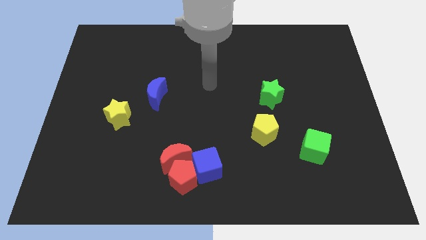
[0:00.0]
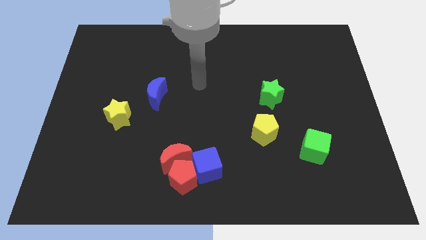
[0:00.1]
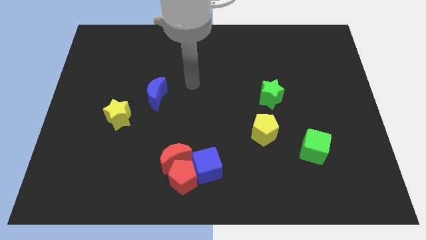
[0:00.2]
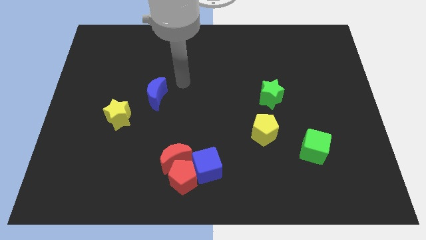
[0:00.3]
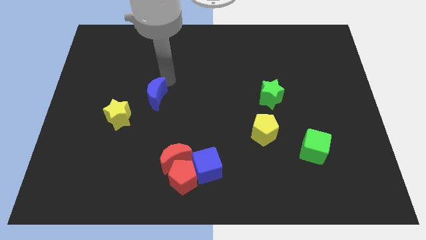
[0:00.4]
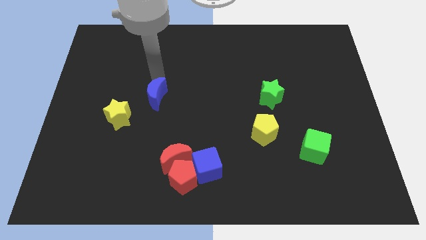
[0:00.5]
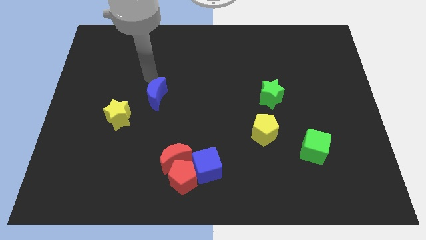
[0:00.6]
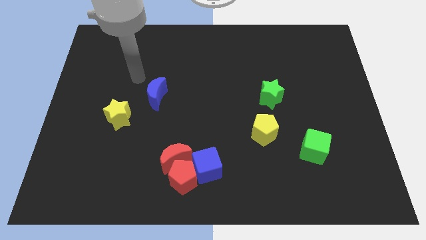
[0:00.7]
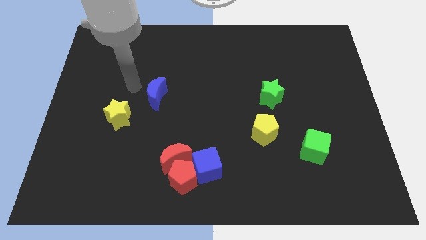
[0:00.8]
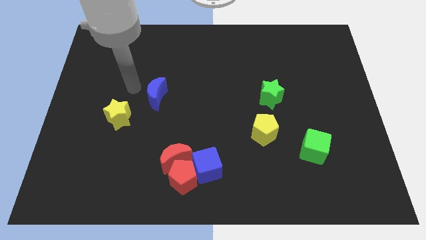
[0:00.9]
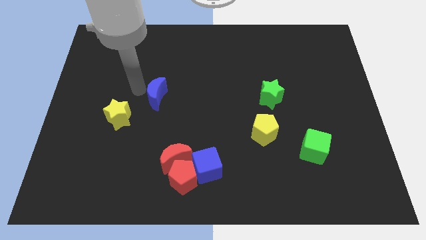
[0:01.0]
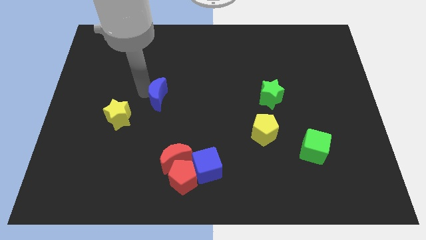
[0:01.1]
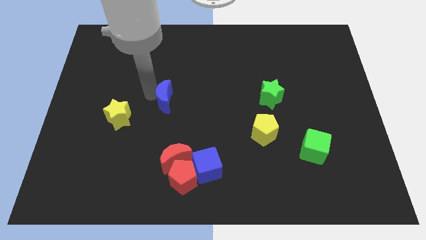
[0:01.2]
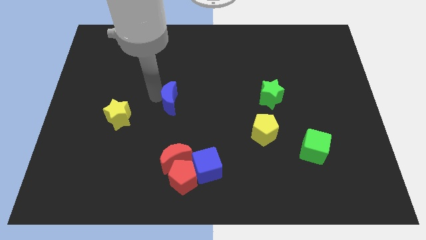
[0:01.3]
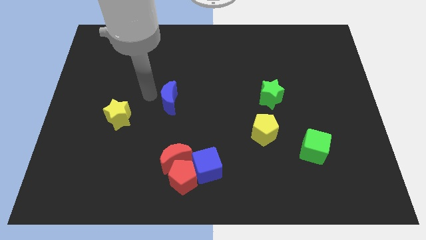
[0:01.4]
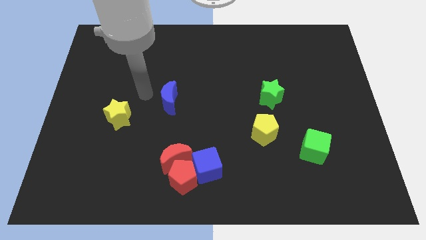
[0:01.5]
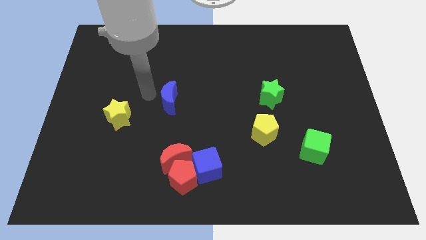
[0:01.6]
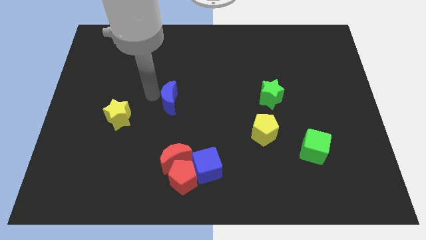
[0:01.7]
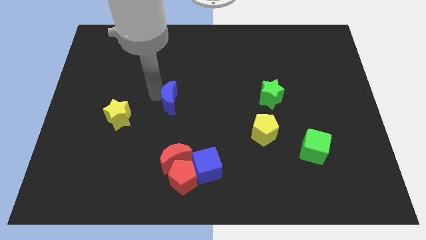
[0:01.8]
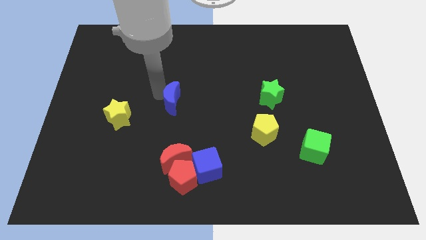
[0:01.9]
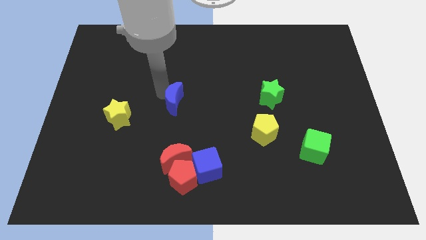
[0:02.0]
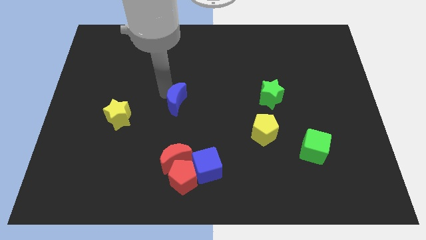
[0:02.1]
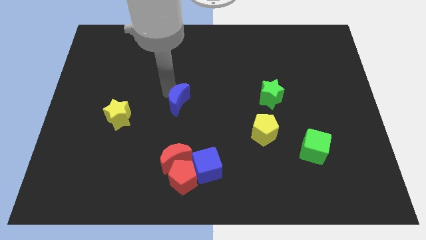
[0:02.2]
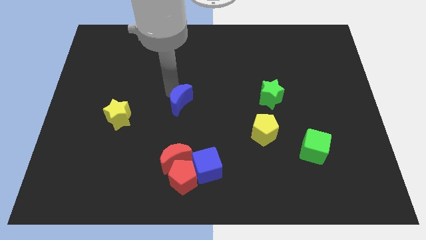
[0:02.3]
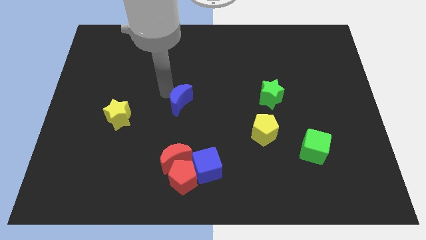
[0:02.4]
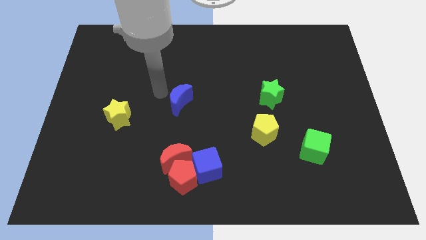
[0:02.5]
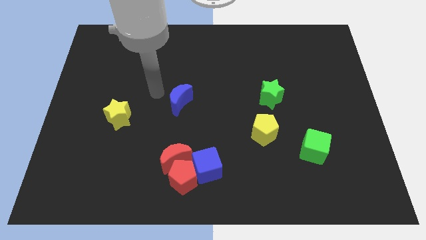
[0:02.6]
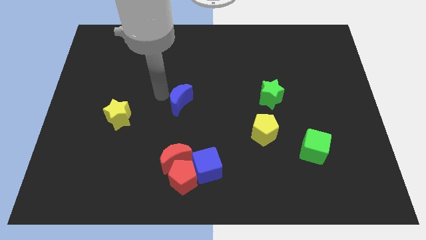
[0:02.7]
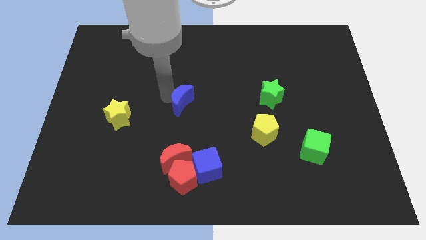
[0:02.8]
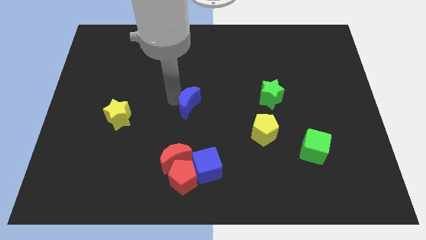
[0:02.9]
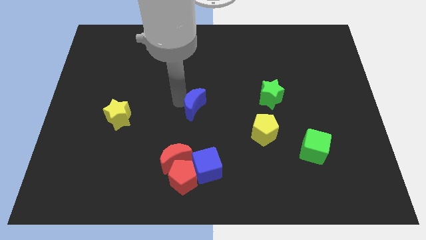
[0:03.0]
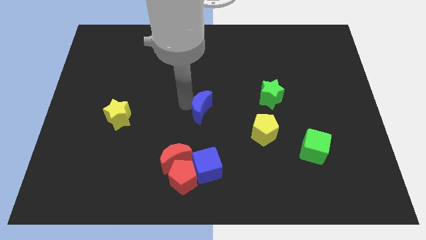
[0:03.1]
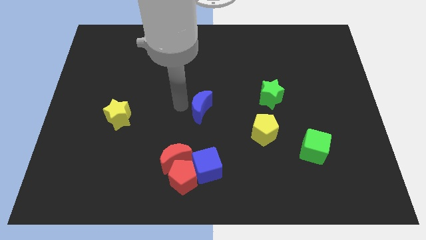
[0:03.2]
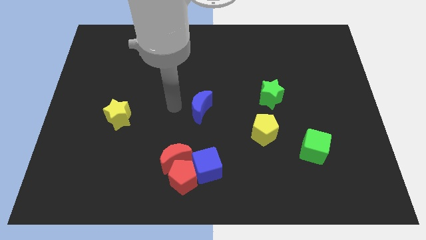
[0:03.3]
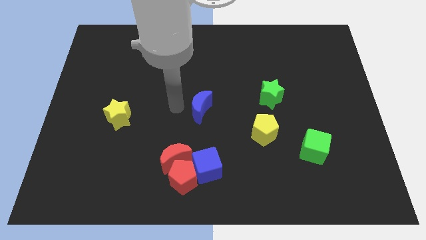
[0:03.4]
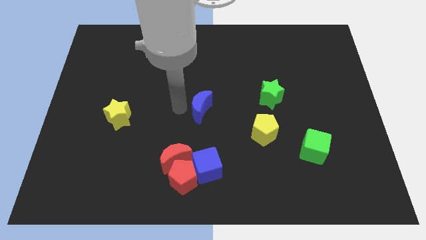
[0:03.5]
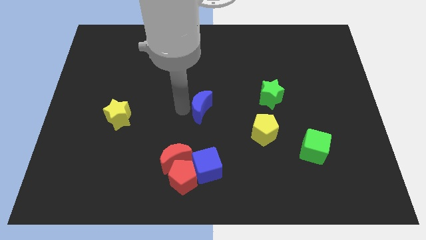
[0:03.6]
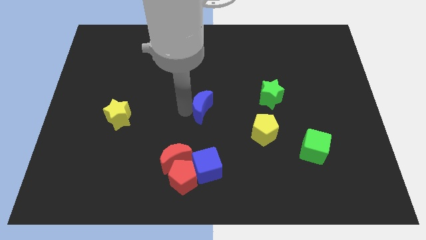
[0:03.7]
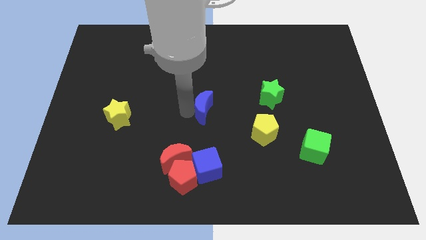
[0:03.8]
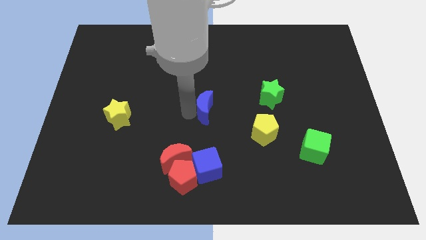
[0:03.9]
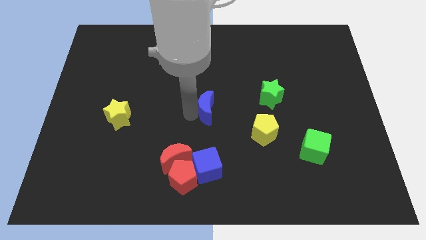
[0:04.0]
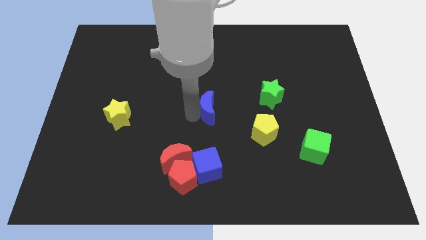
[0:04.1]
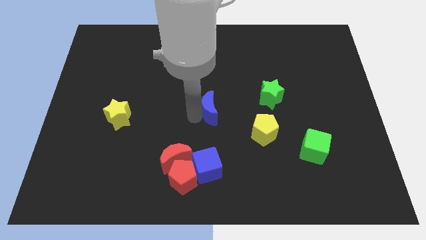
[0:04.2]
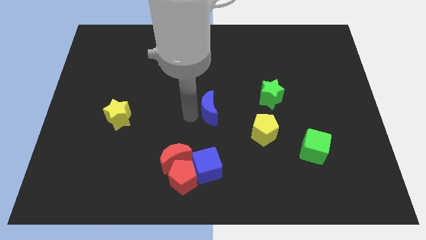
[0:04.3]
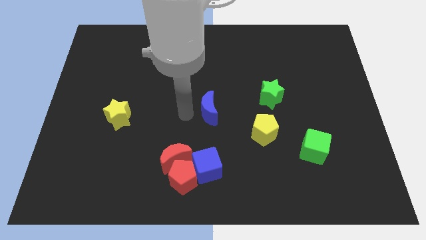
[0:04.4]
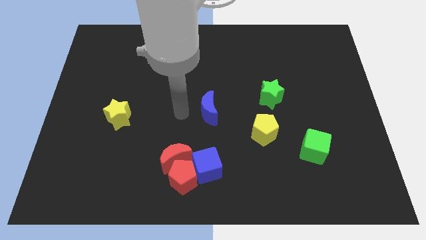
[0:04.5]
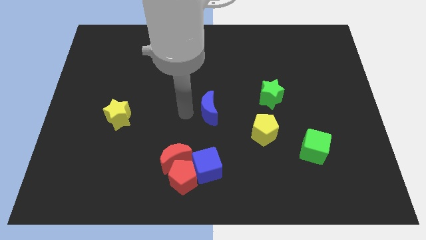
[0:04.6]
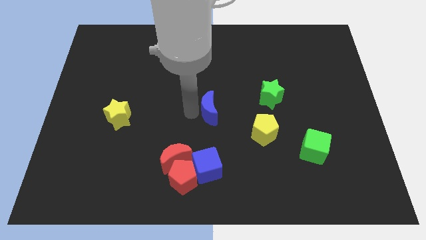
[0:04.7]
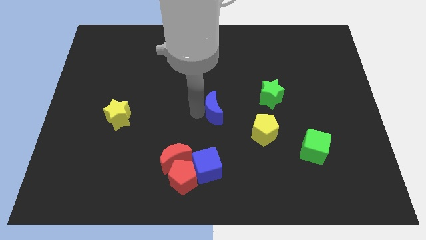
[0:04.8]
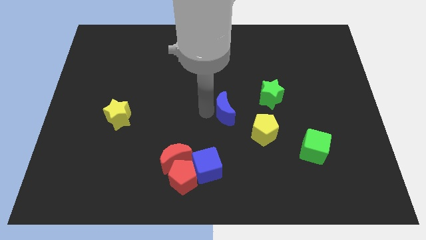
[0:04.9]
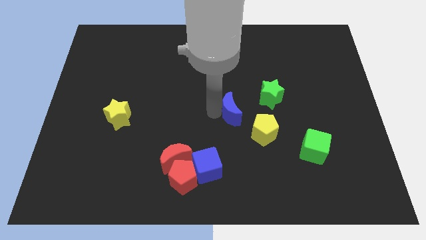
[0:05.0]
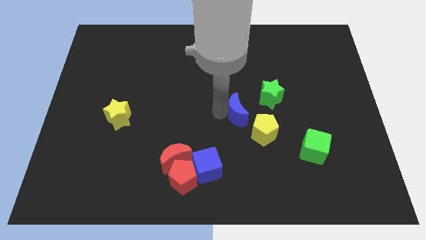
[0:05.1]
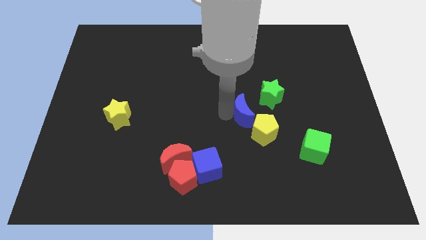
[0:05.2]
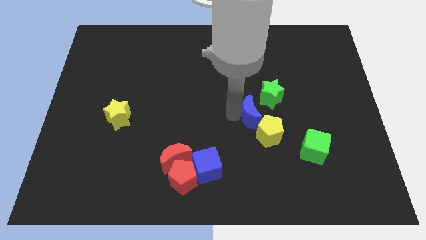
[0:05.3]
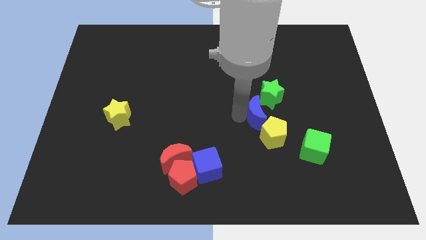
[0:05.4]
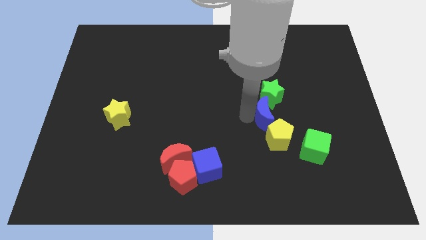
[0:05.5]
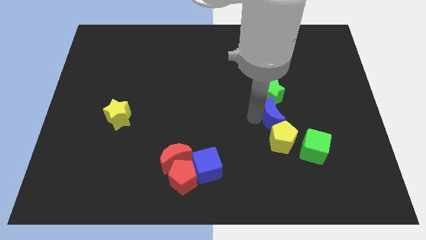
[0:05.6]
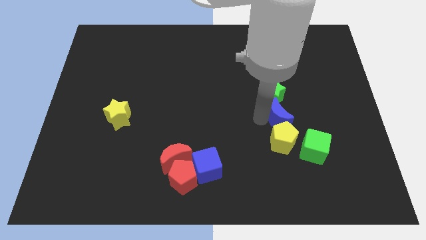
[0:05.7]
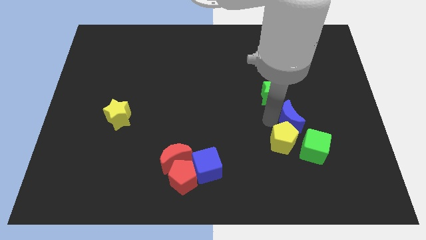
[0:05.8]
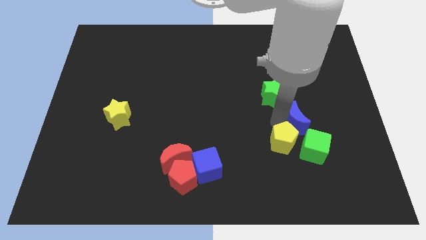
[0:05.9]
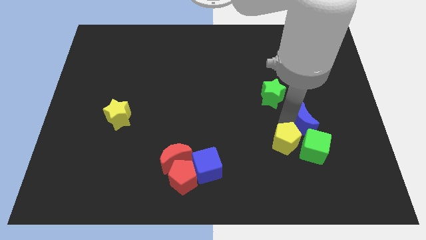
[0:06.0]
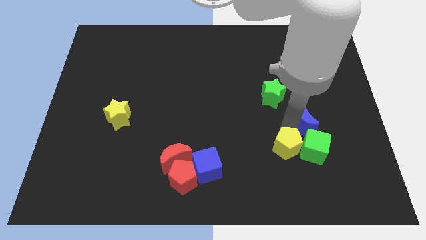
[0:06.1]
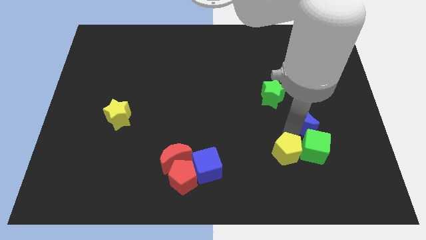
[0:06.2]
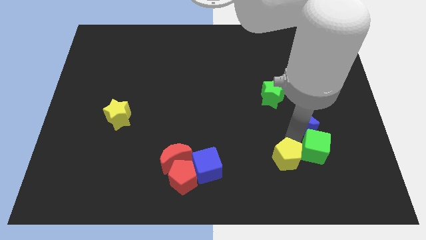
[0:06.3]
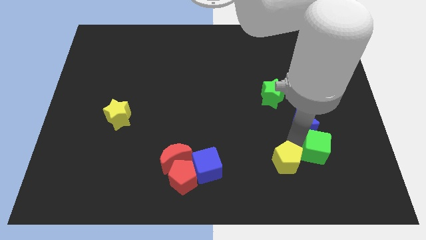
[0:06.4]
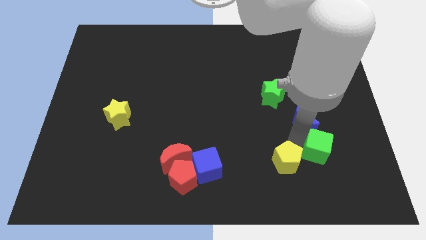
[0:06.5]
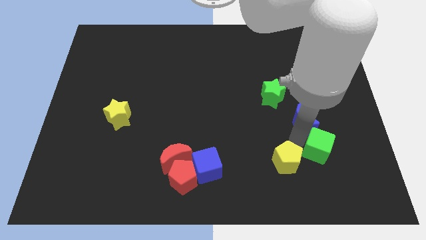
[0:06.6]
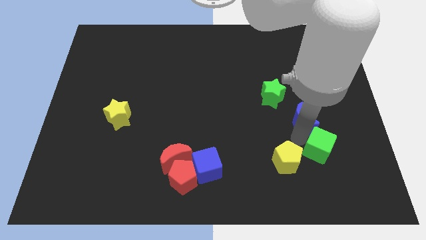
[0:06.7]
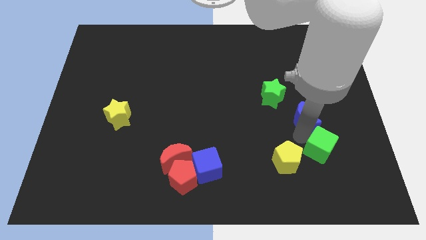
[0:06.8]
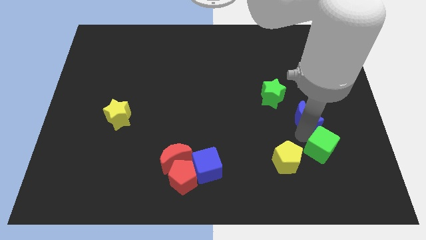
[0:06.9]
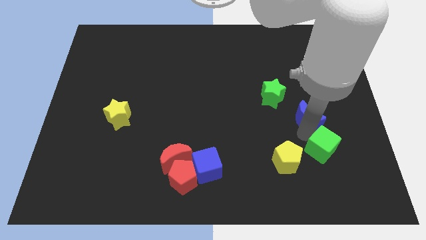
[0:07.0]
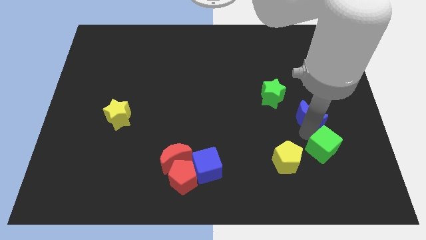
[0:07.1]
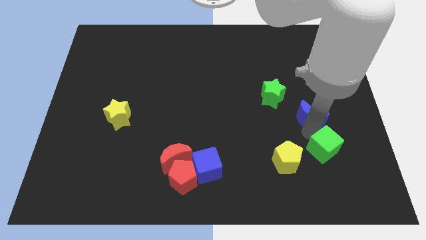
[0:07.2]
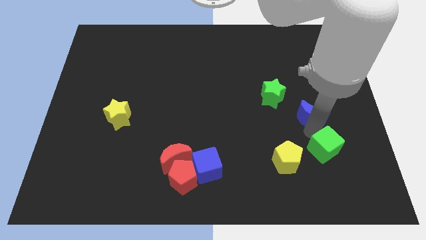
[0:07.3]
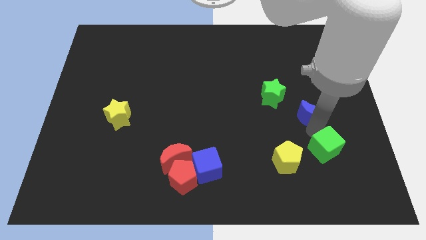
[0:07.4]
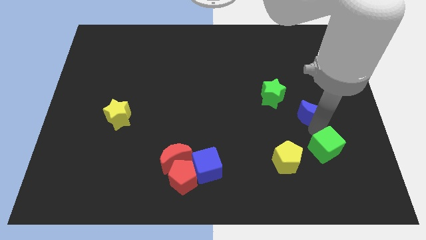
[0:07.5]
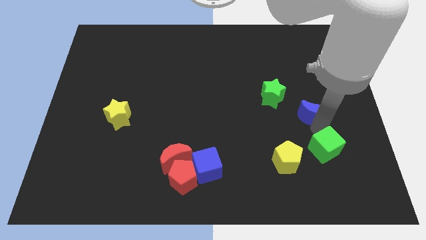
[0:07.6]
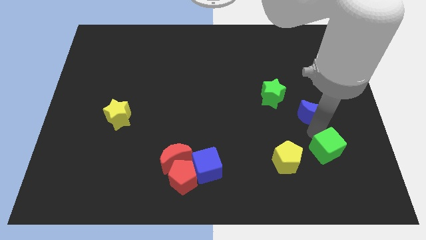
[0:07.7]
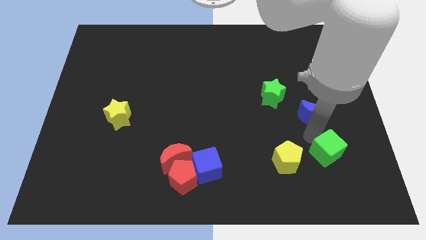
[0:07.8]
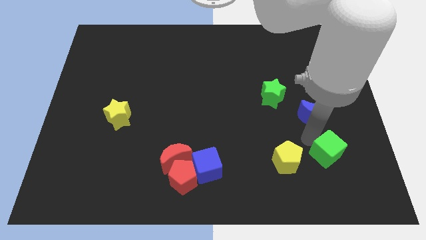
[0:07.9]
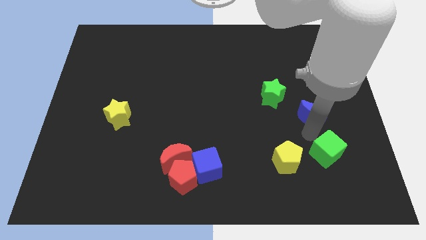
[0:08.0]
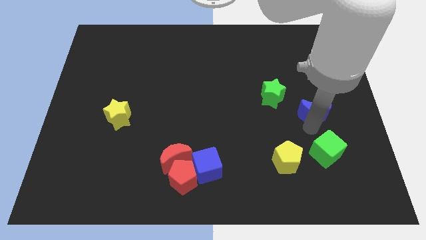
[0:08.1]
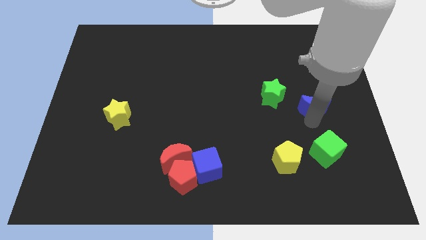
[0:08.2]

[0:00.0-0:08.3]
push the blue moon just right of the green star
